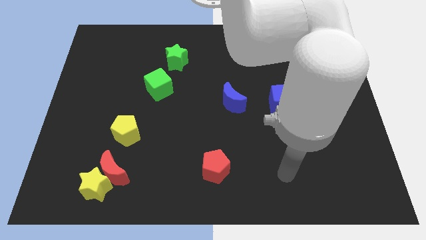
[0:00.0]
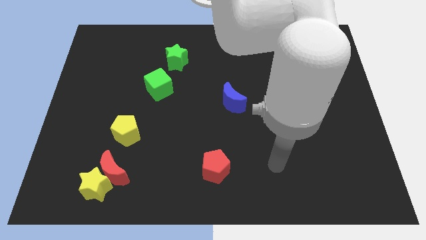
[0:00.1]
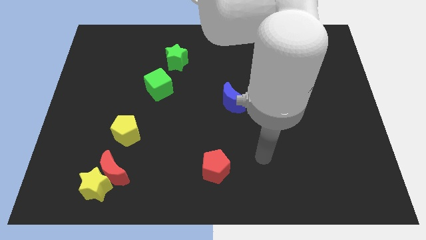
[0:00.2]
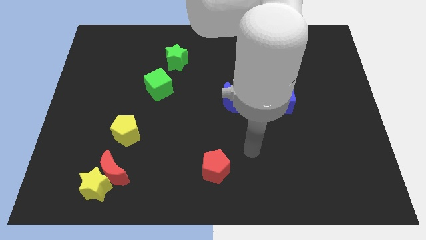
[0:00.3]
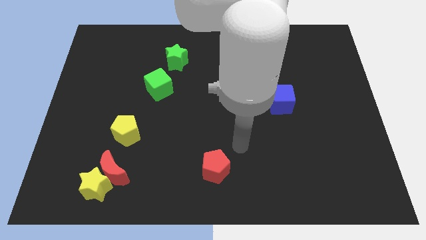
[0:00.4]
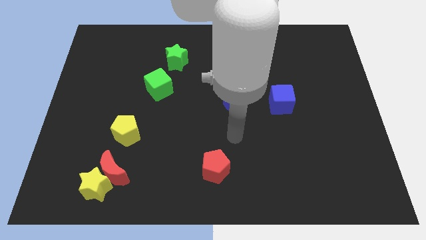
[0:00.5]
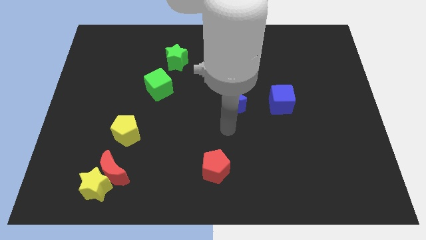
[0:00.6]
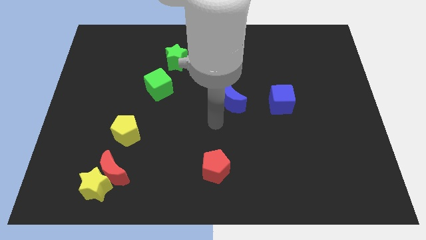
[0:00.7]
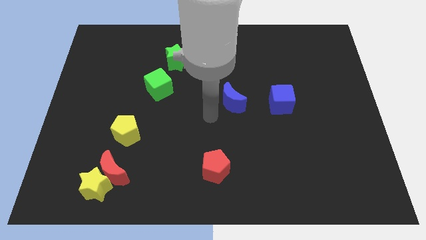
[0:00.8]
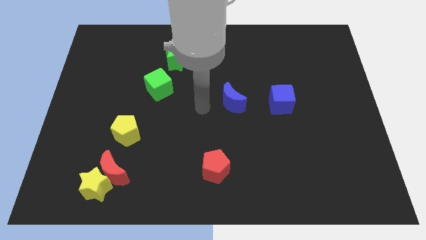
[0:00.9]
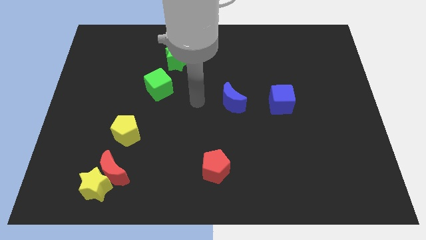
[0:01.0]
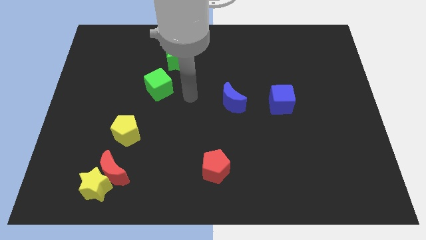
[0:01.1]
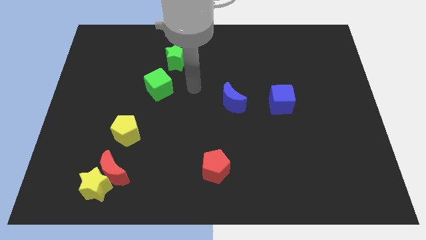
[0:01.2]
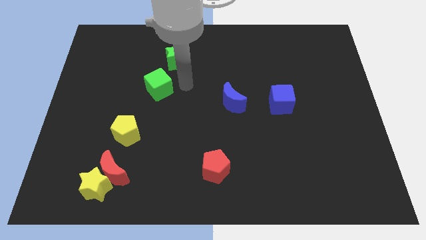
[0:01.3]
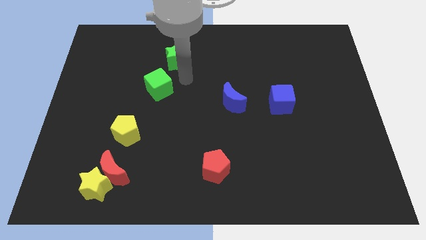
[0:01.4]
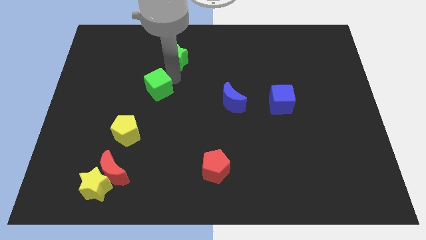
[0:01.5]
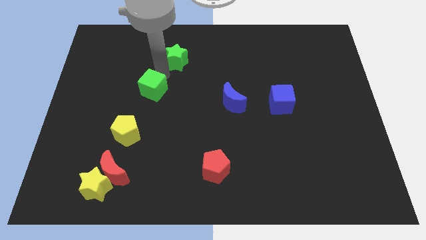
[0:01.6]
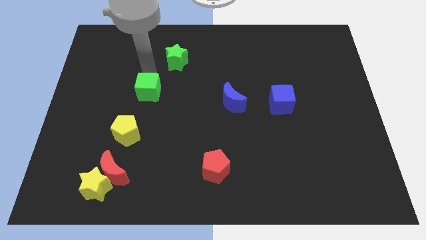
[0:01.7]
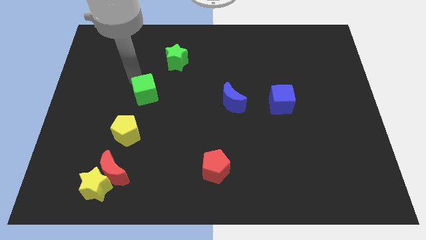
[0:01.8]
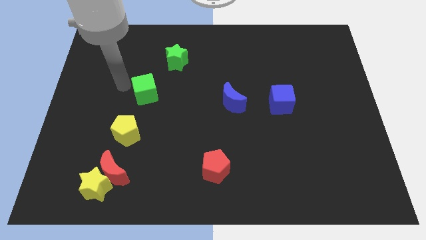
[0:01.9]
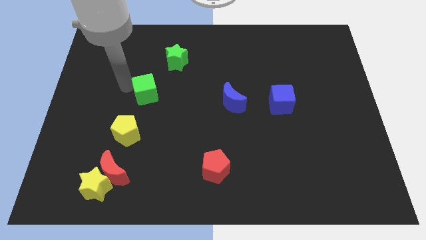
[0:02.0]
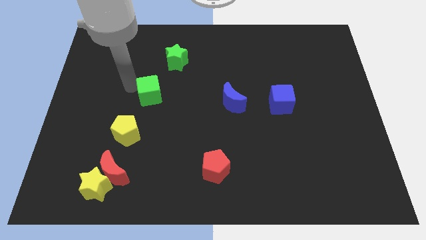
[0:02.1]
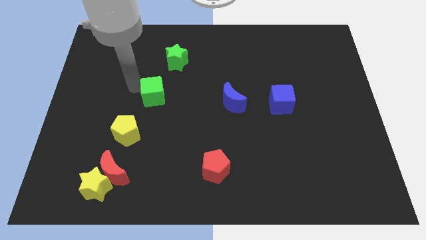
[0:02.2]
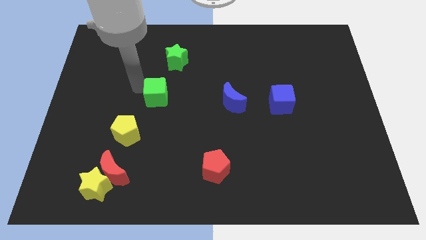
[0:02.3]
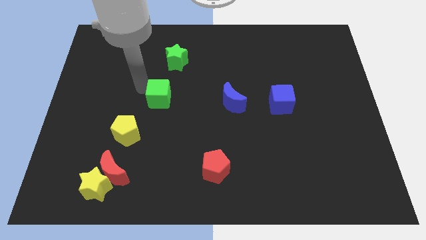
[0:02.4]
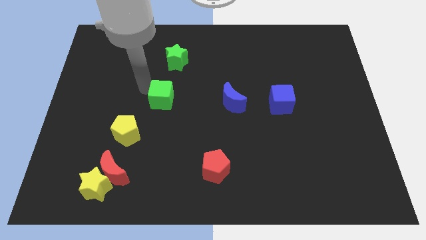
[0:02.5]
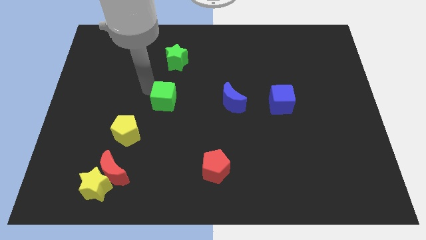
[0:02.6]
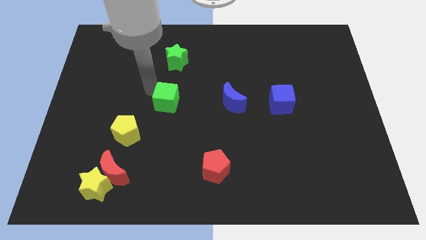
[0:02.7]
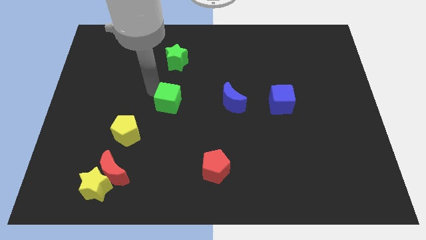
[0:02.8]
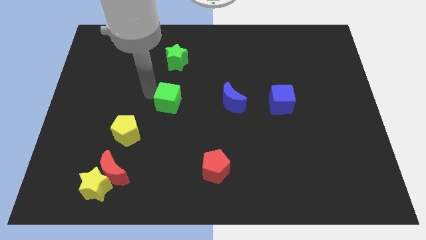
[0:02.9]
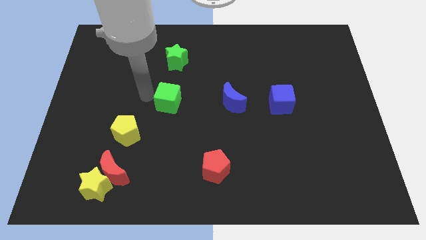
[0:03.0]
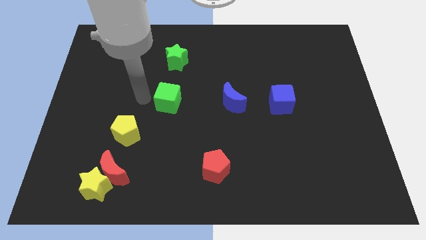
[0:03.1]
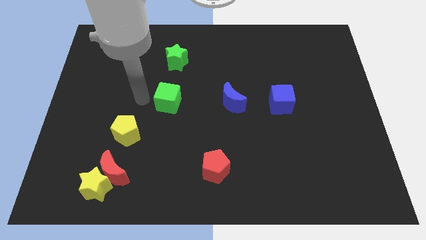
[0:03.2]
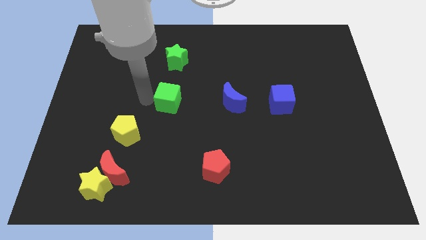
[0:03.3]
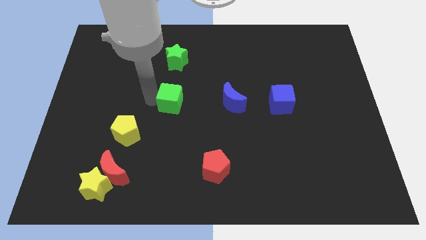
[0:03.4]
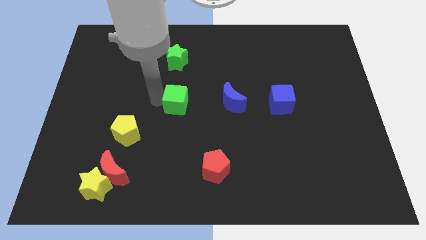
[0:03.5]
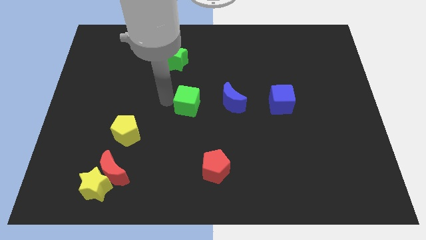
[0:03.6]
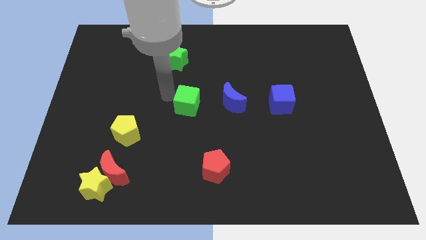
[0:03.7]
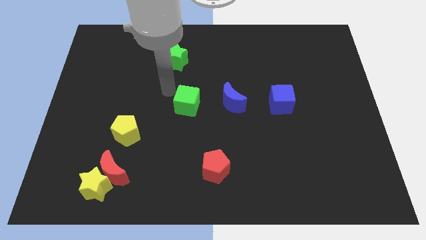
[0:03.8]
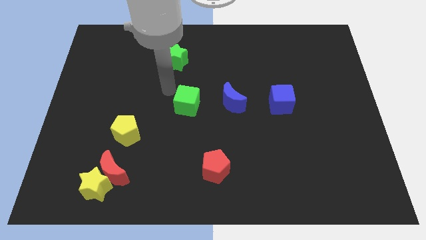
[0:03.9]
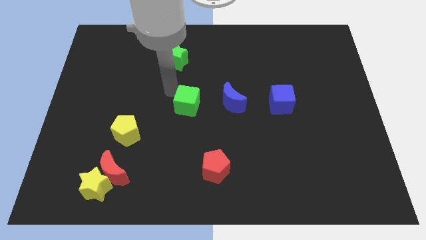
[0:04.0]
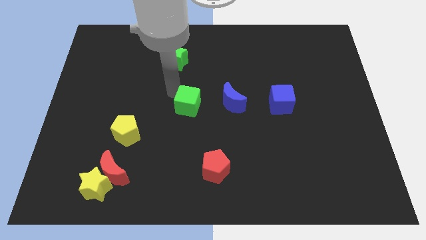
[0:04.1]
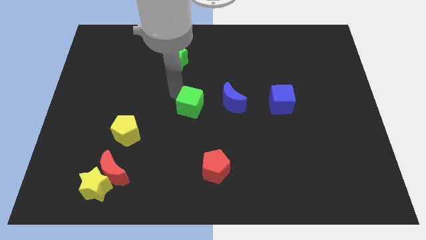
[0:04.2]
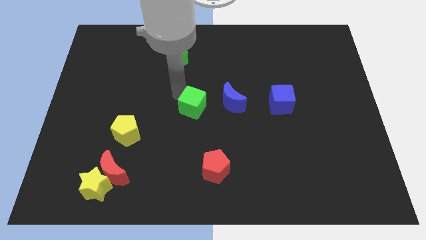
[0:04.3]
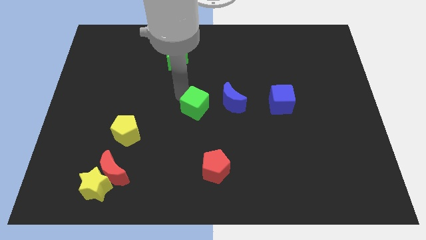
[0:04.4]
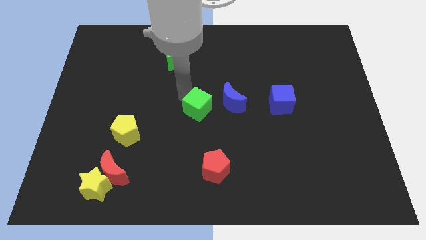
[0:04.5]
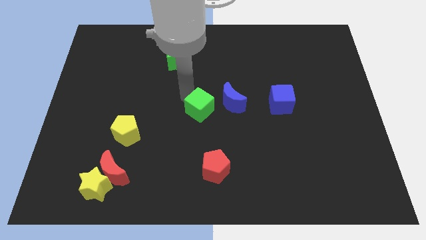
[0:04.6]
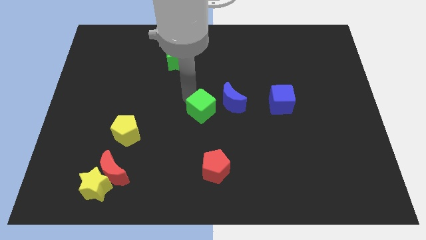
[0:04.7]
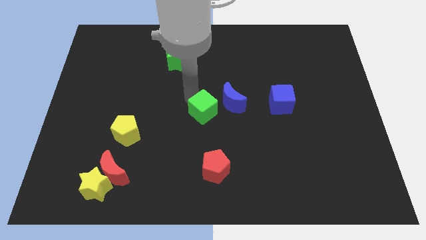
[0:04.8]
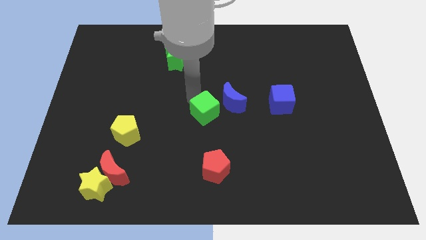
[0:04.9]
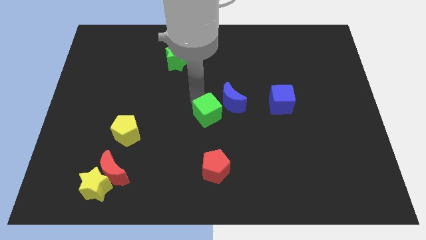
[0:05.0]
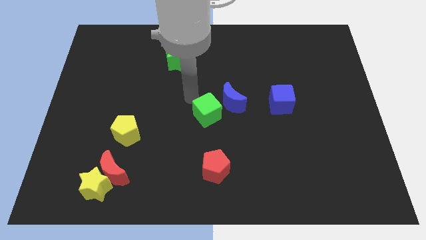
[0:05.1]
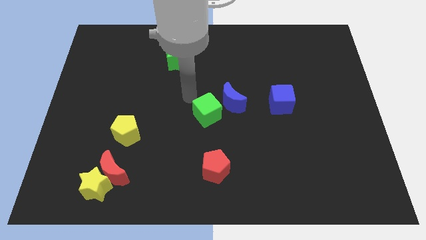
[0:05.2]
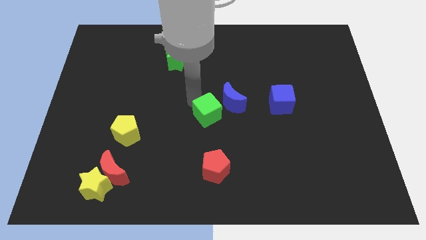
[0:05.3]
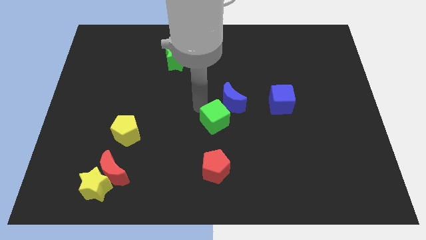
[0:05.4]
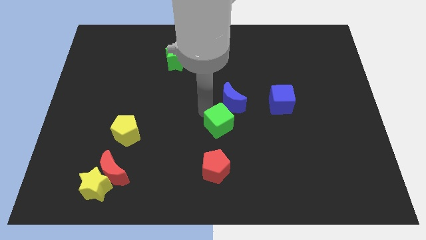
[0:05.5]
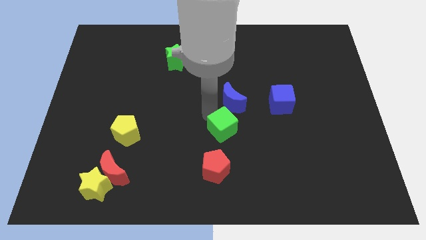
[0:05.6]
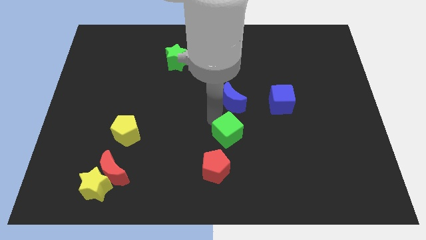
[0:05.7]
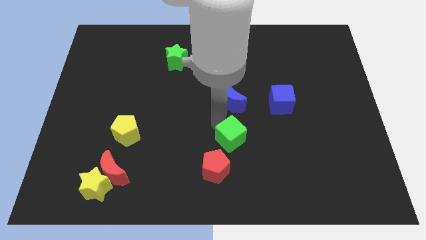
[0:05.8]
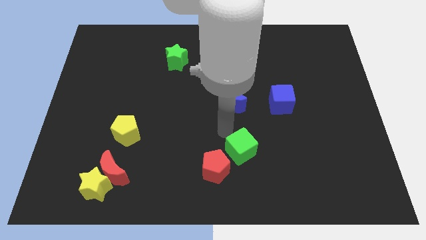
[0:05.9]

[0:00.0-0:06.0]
push the green cube to the right side of the red pentagon
